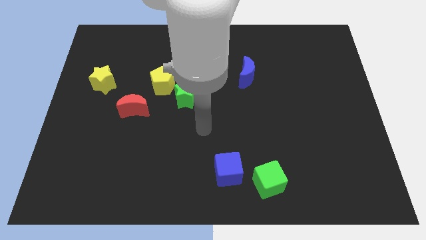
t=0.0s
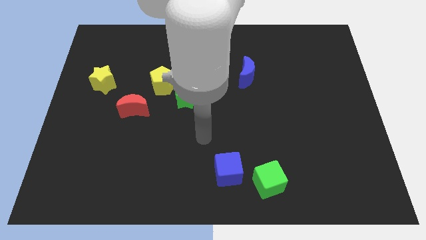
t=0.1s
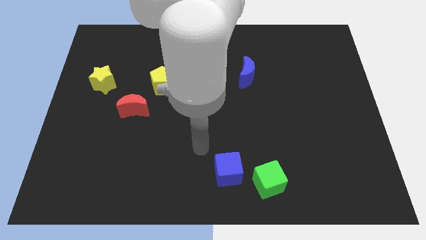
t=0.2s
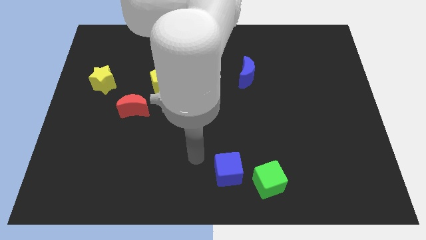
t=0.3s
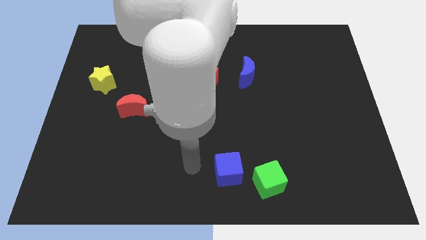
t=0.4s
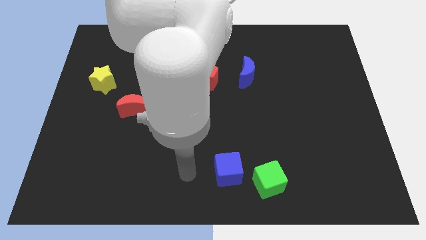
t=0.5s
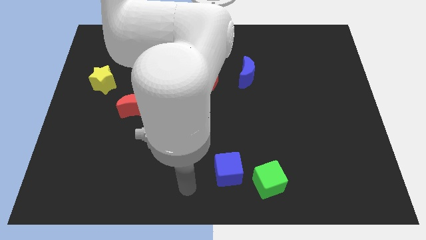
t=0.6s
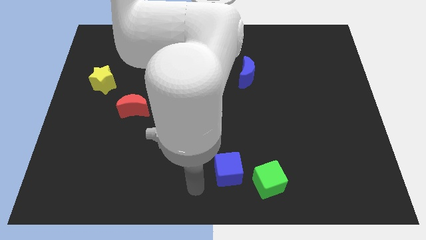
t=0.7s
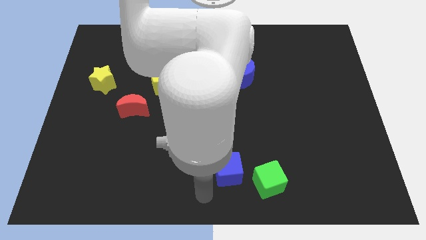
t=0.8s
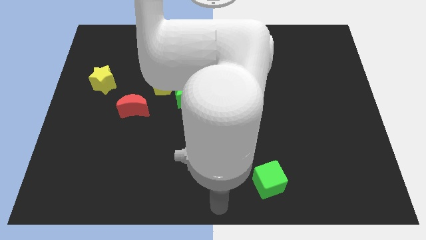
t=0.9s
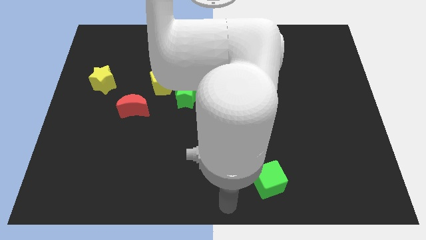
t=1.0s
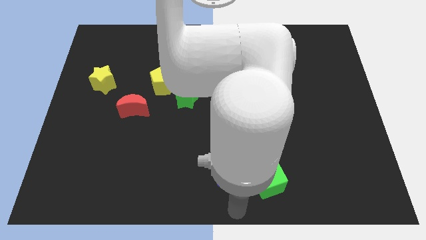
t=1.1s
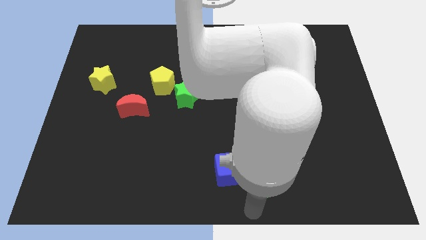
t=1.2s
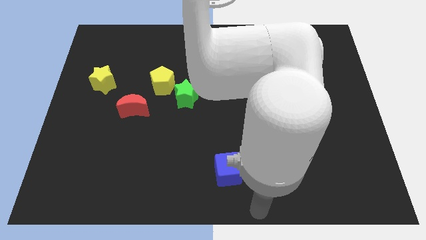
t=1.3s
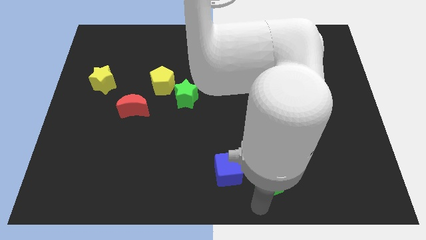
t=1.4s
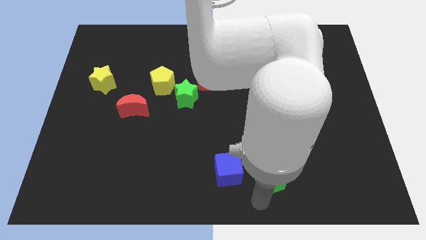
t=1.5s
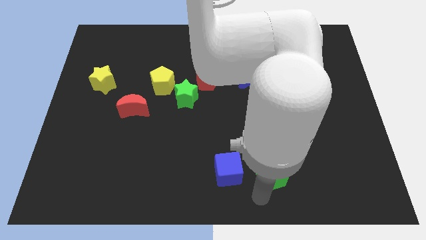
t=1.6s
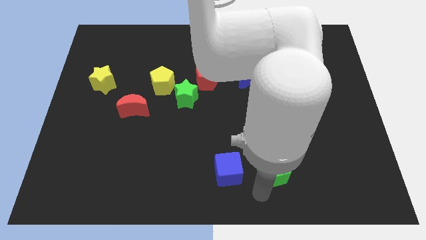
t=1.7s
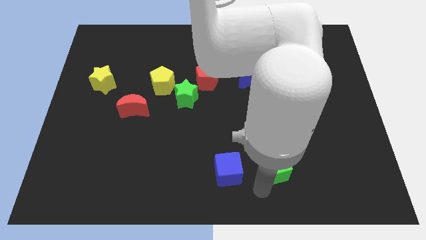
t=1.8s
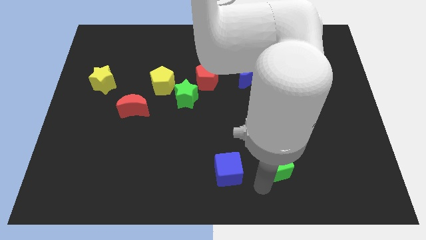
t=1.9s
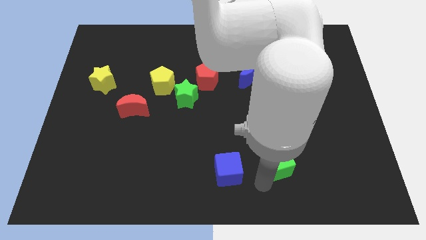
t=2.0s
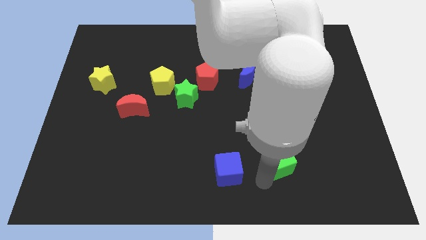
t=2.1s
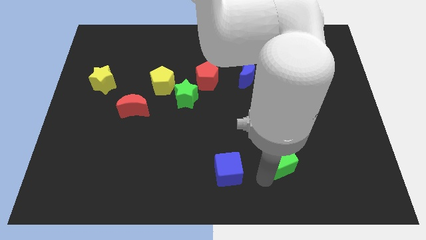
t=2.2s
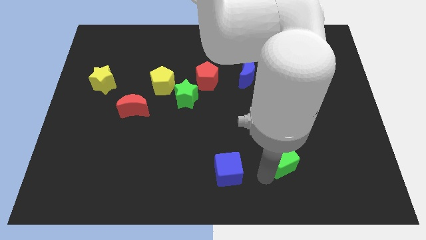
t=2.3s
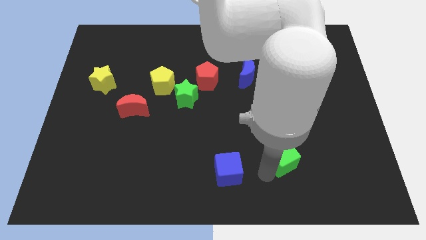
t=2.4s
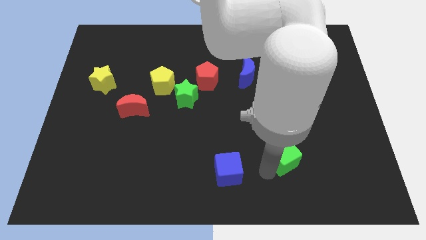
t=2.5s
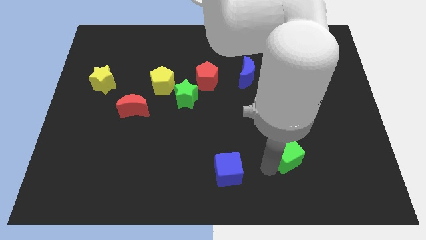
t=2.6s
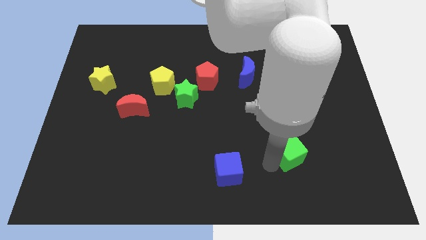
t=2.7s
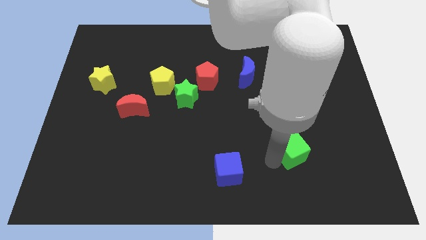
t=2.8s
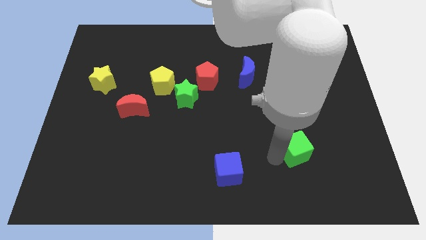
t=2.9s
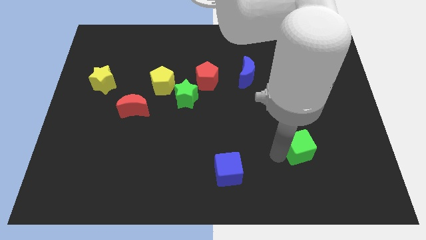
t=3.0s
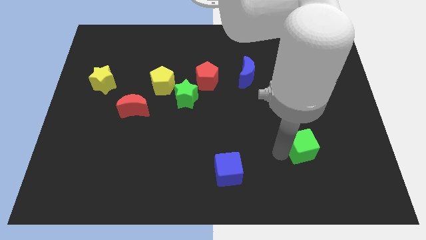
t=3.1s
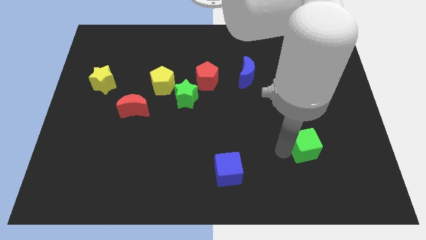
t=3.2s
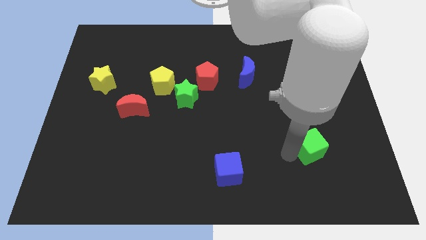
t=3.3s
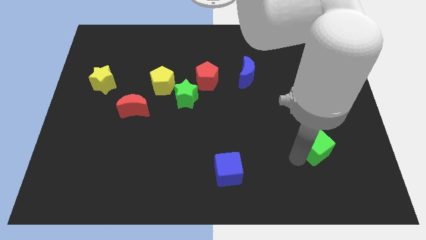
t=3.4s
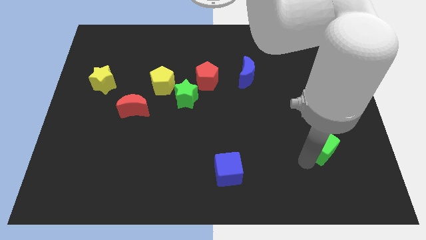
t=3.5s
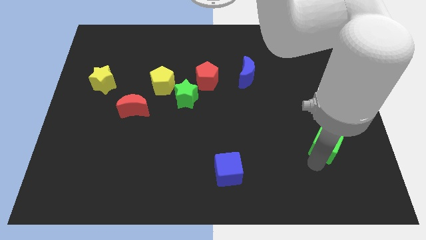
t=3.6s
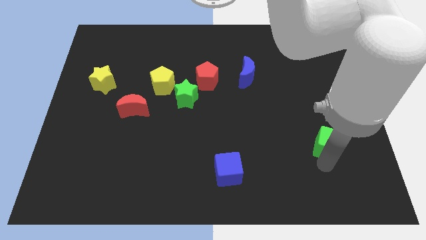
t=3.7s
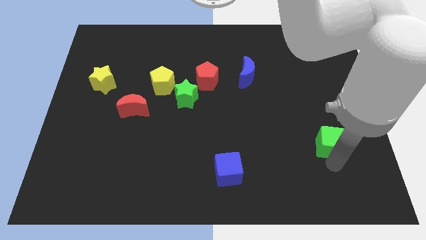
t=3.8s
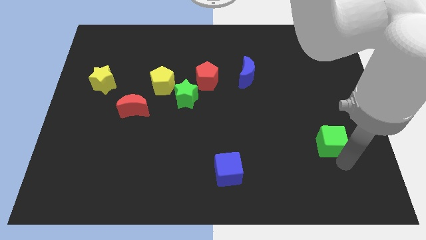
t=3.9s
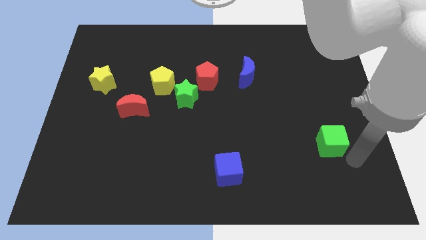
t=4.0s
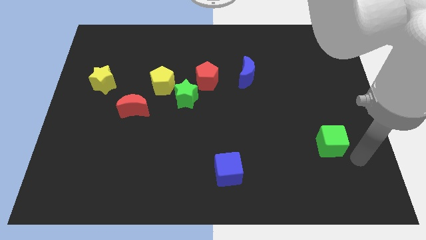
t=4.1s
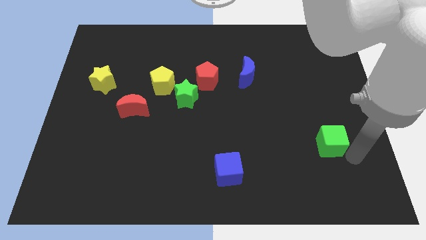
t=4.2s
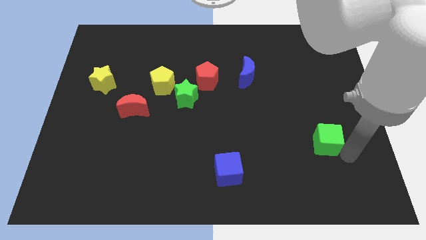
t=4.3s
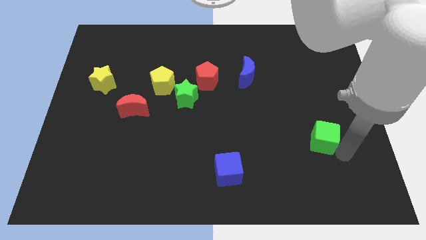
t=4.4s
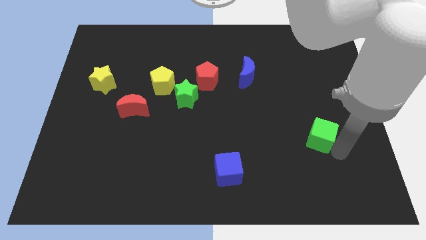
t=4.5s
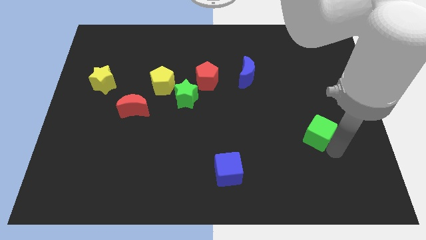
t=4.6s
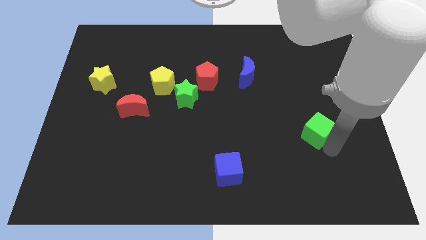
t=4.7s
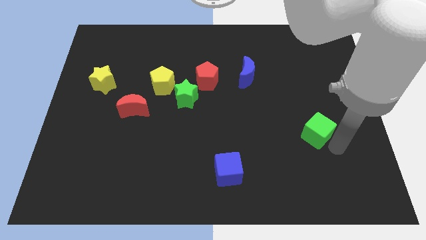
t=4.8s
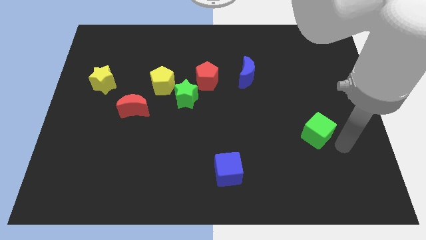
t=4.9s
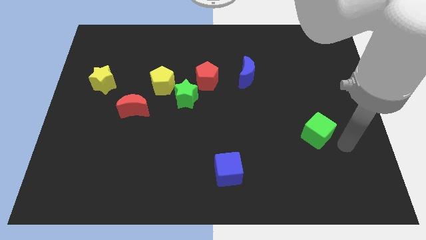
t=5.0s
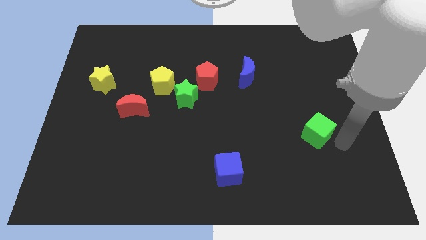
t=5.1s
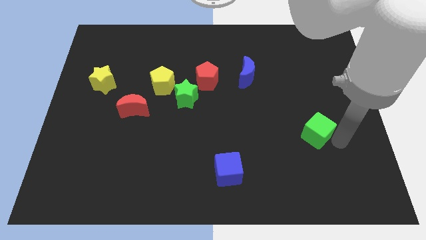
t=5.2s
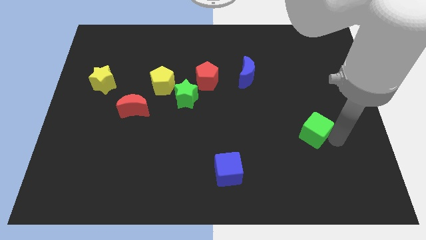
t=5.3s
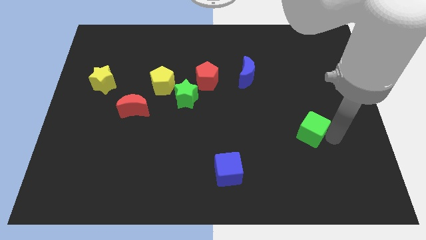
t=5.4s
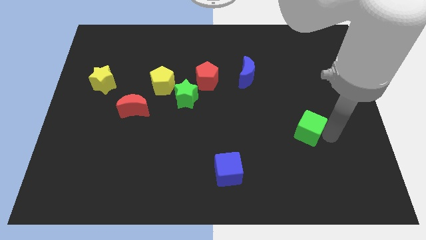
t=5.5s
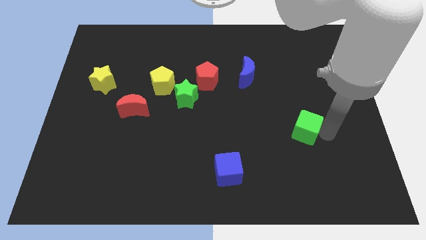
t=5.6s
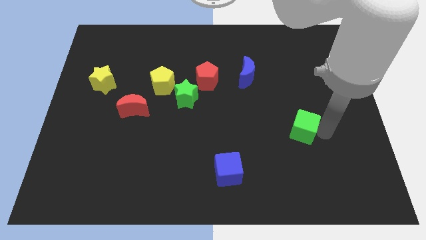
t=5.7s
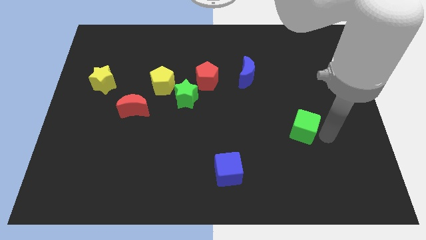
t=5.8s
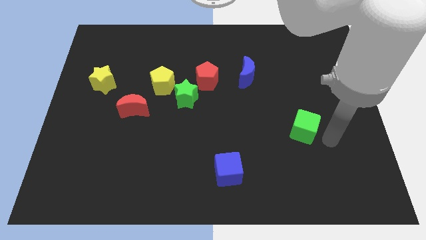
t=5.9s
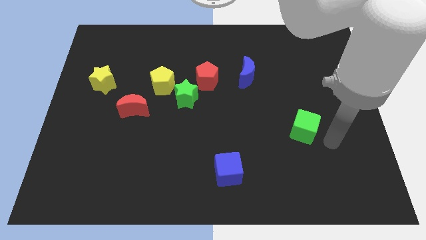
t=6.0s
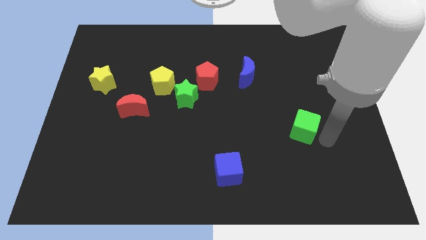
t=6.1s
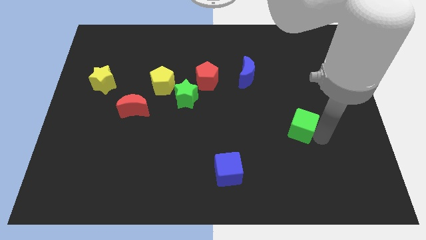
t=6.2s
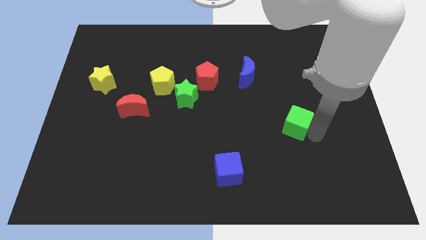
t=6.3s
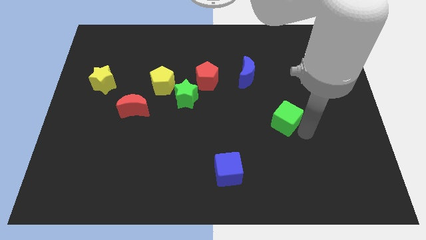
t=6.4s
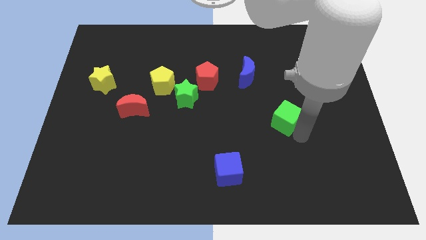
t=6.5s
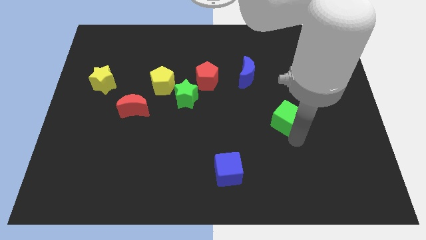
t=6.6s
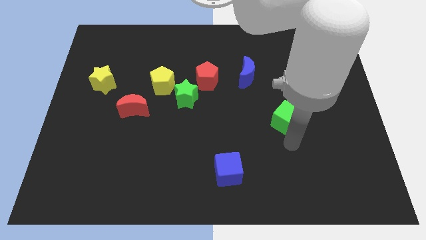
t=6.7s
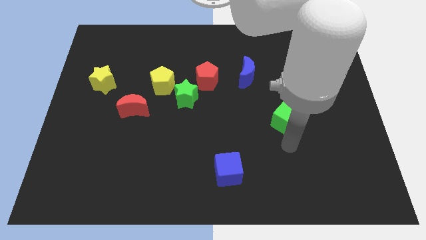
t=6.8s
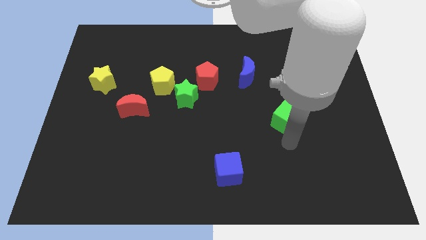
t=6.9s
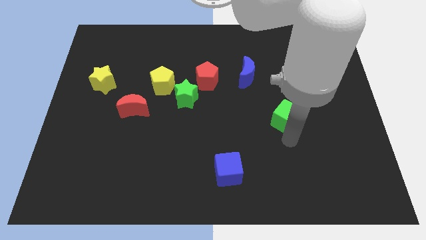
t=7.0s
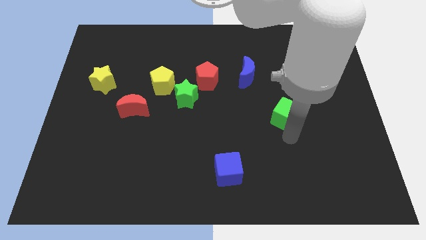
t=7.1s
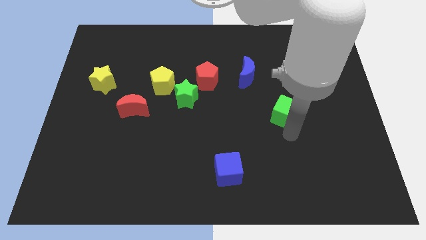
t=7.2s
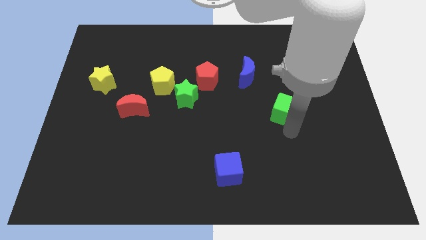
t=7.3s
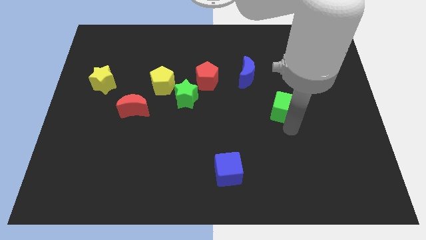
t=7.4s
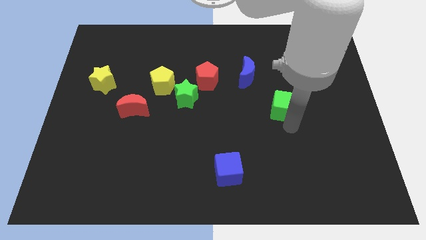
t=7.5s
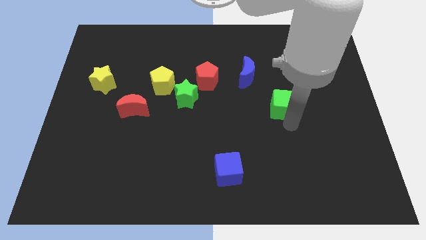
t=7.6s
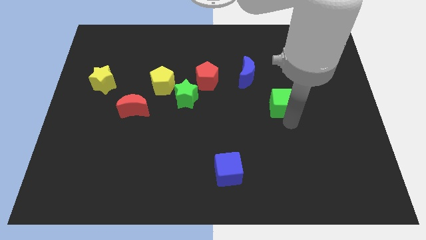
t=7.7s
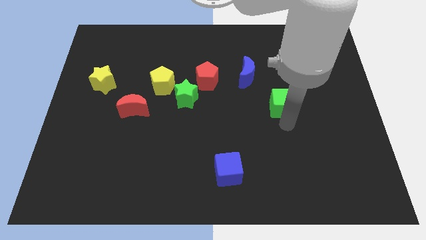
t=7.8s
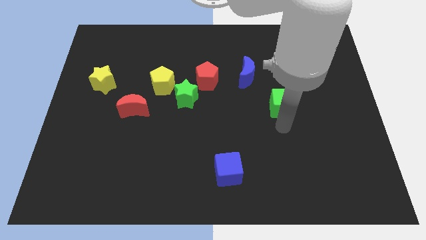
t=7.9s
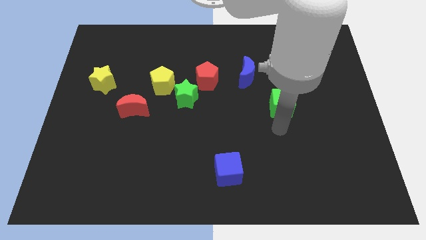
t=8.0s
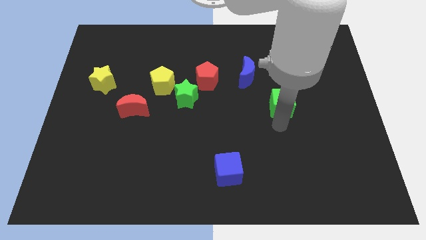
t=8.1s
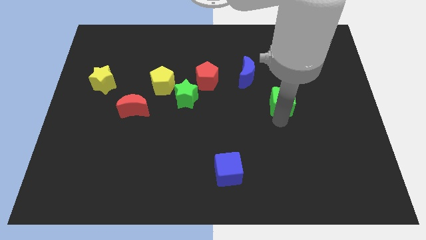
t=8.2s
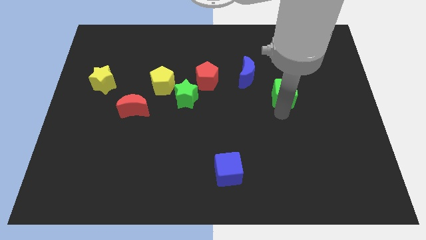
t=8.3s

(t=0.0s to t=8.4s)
move the green cube up
